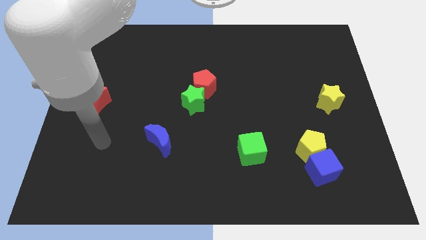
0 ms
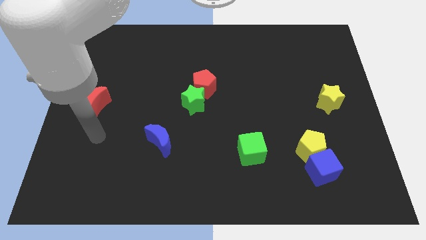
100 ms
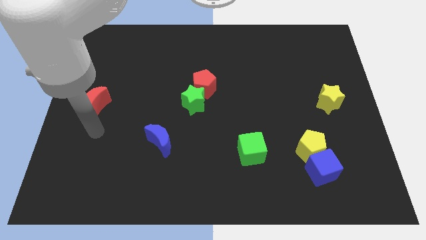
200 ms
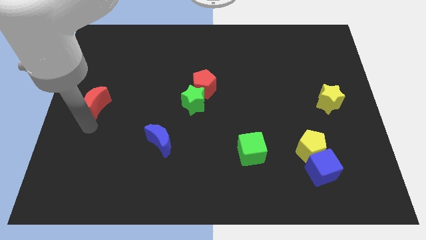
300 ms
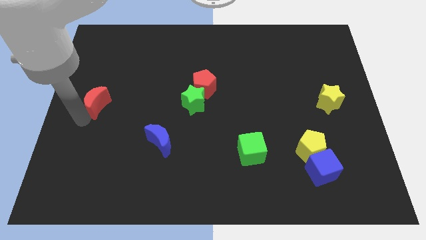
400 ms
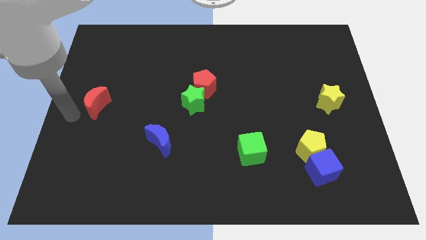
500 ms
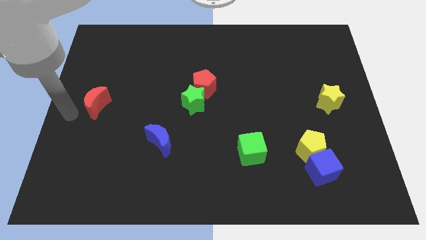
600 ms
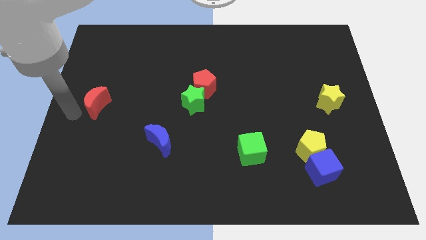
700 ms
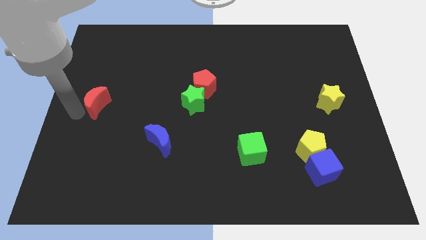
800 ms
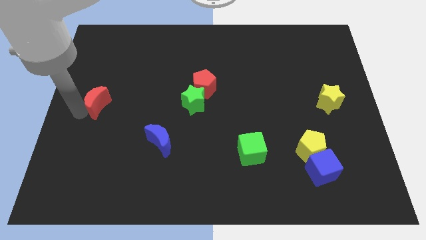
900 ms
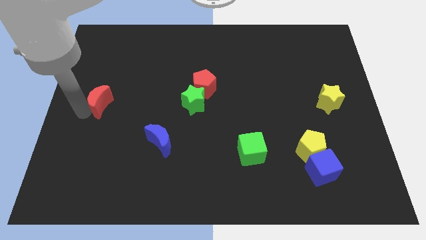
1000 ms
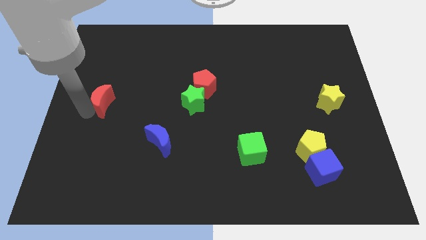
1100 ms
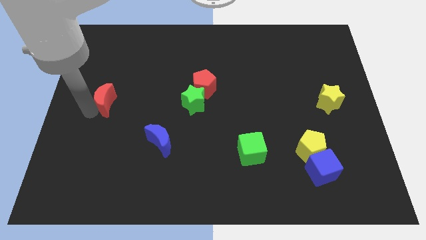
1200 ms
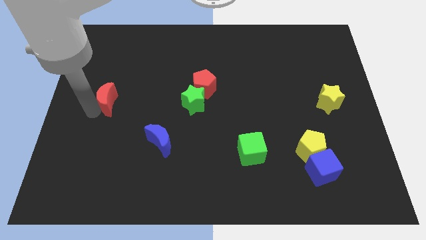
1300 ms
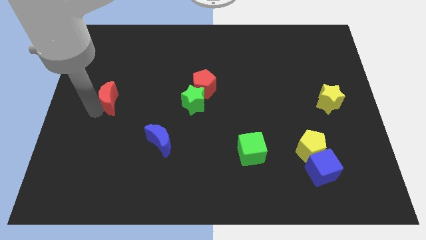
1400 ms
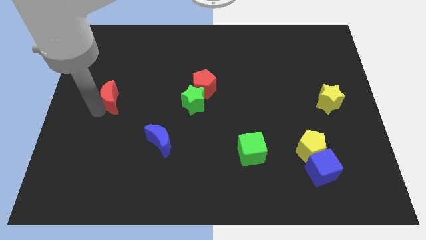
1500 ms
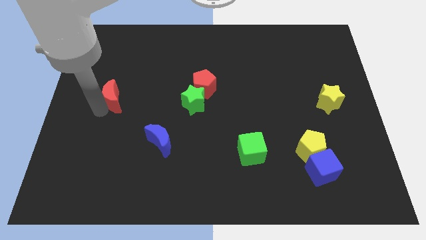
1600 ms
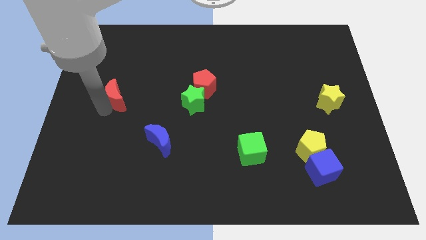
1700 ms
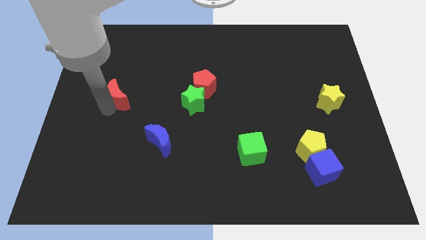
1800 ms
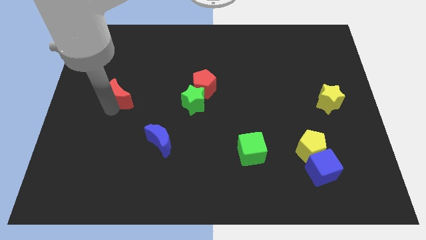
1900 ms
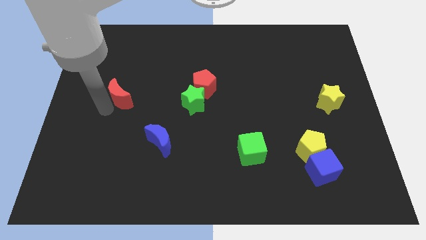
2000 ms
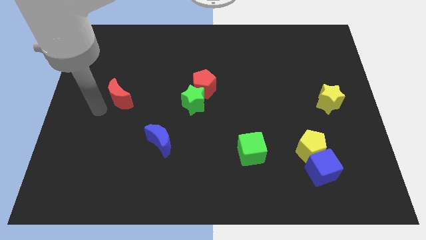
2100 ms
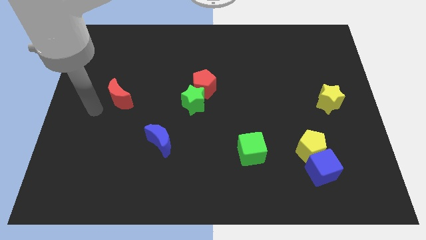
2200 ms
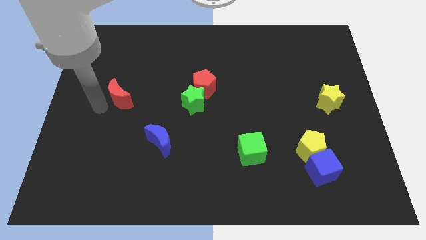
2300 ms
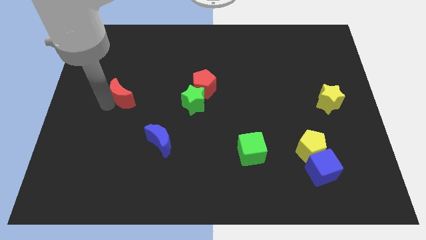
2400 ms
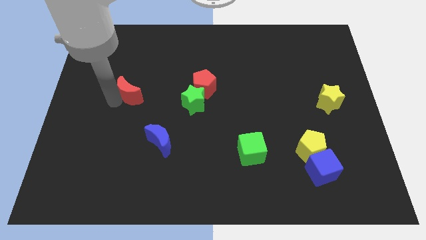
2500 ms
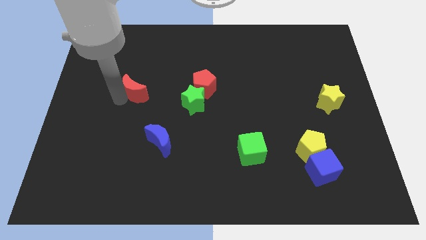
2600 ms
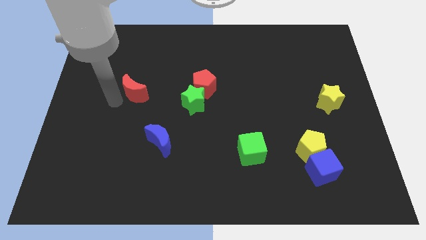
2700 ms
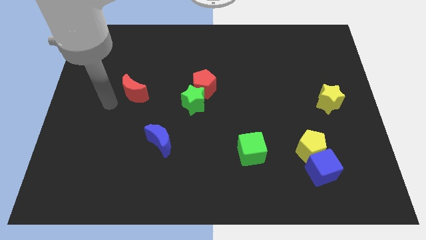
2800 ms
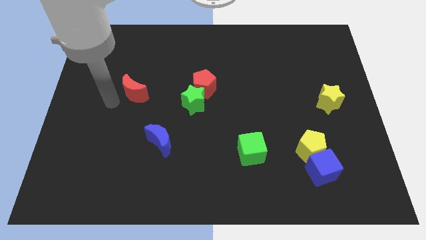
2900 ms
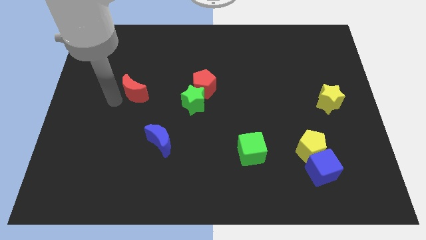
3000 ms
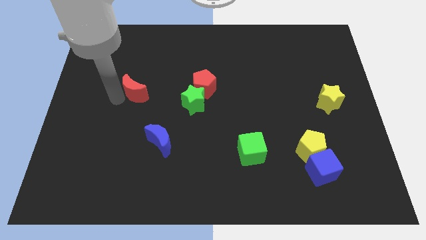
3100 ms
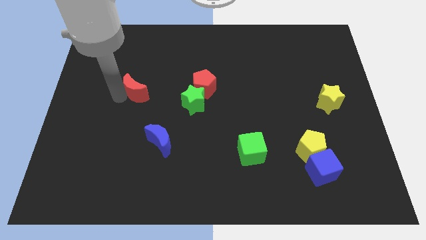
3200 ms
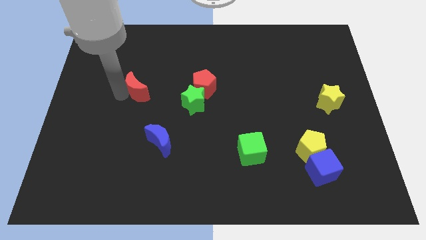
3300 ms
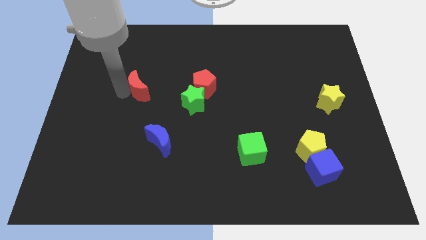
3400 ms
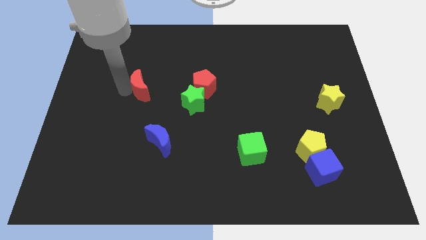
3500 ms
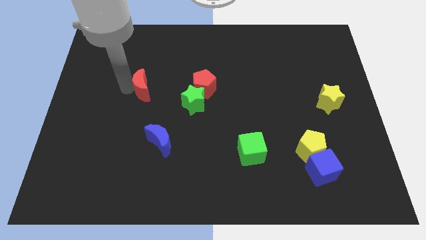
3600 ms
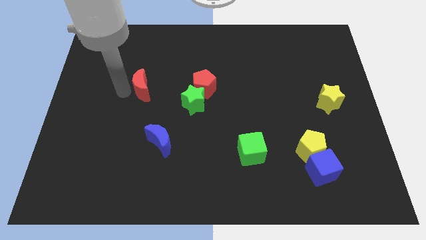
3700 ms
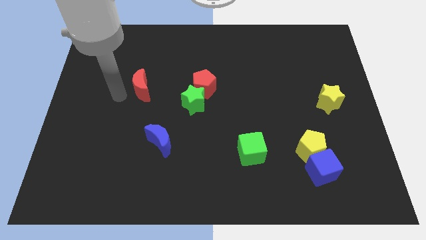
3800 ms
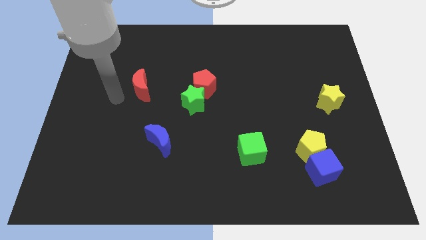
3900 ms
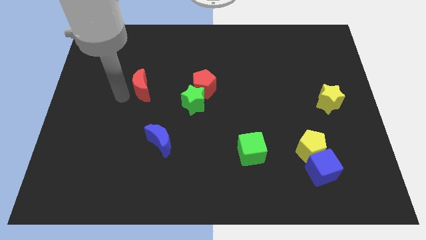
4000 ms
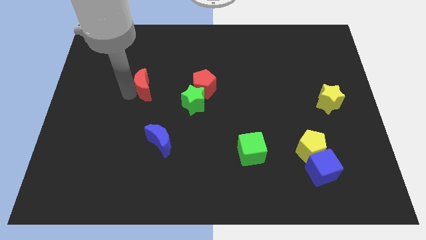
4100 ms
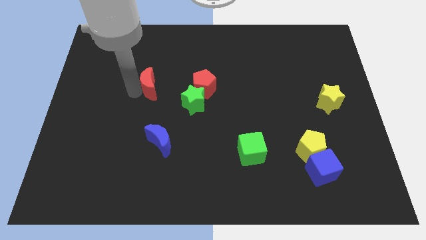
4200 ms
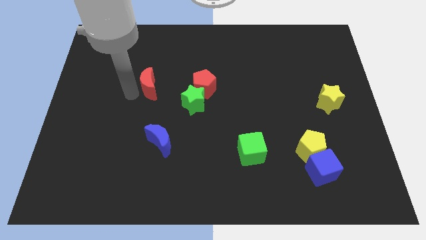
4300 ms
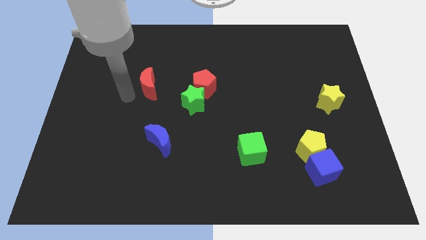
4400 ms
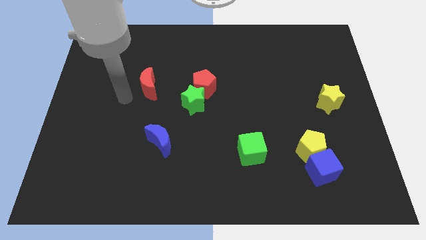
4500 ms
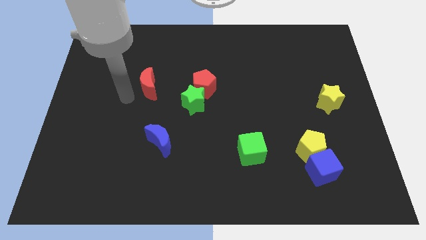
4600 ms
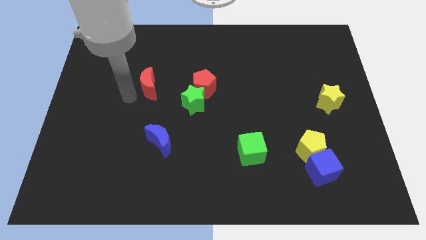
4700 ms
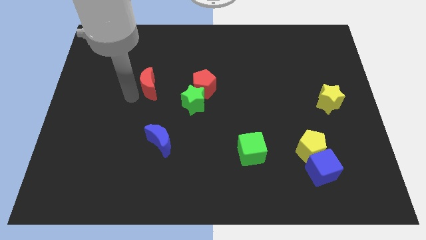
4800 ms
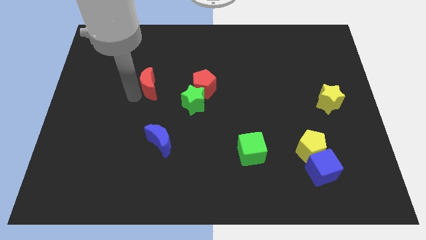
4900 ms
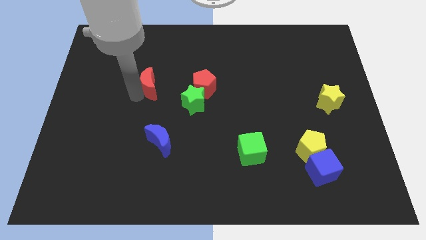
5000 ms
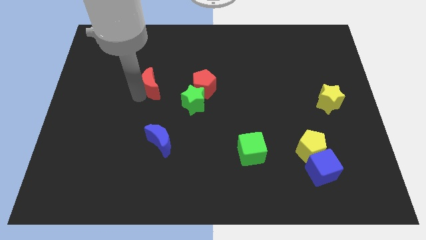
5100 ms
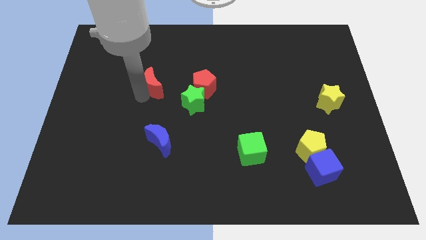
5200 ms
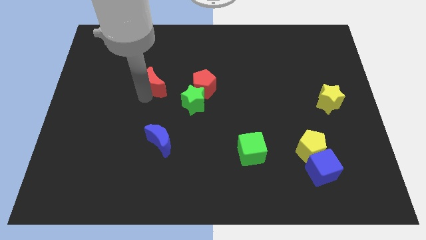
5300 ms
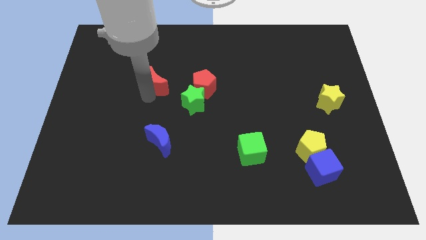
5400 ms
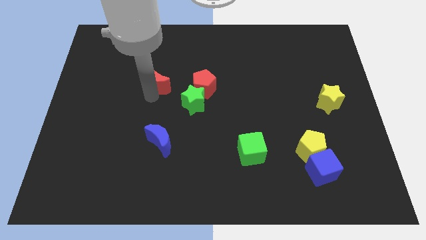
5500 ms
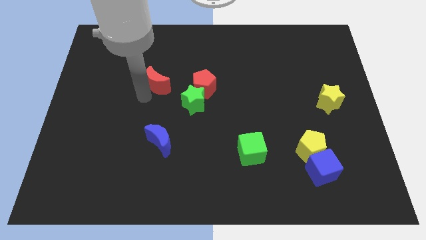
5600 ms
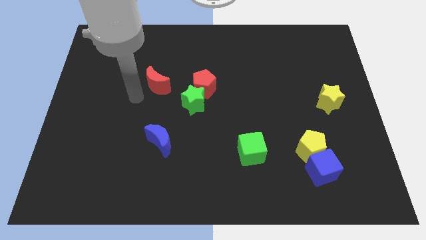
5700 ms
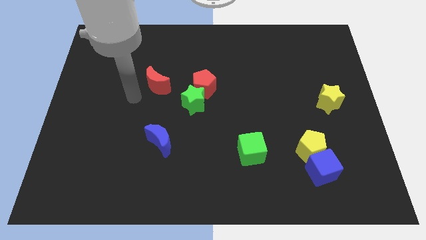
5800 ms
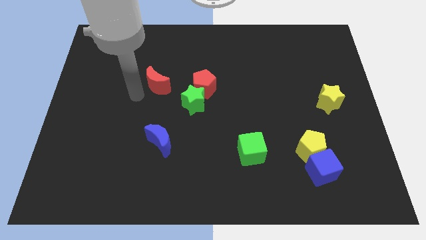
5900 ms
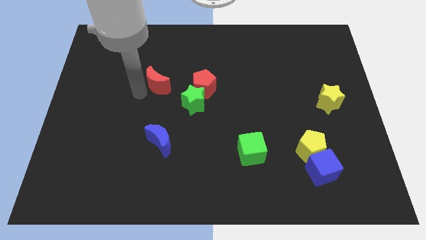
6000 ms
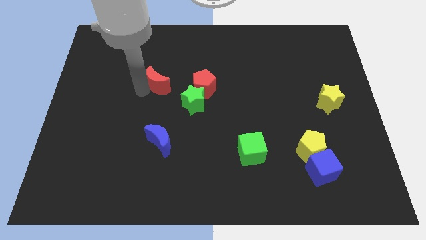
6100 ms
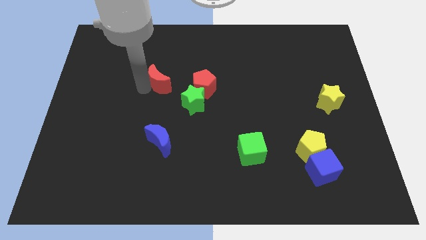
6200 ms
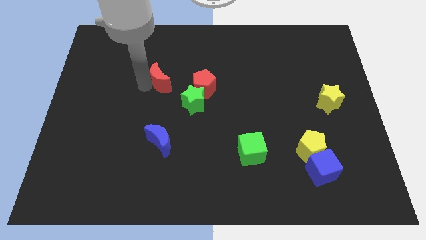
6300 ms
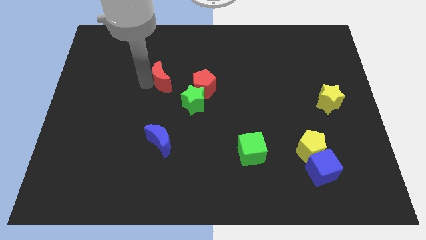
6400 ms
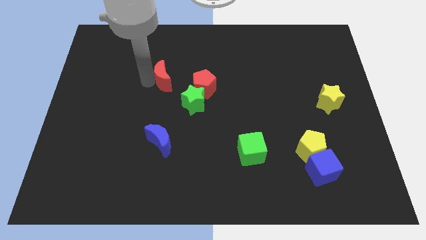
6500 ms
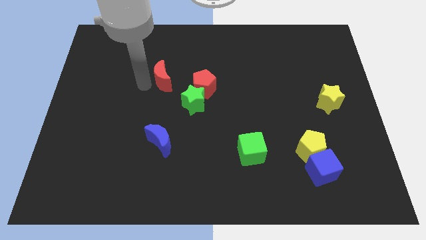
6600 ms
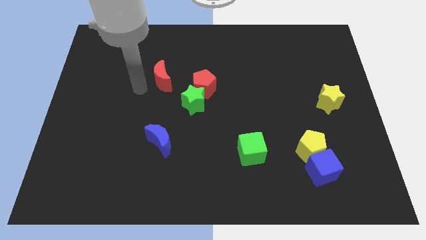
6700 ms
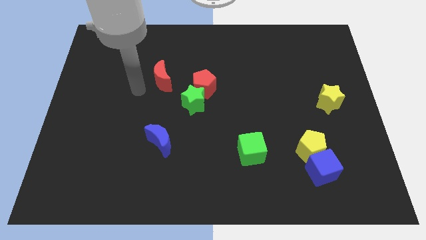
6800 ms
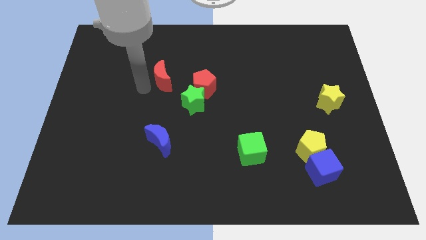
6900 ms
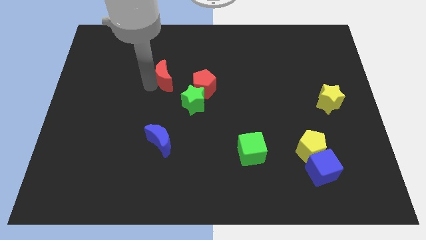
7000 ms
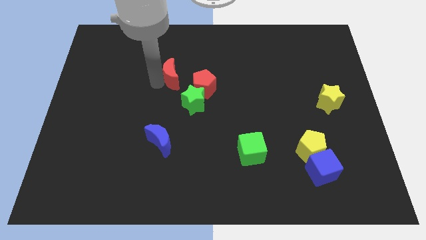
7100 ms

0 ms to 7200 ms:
move the red moon to the top left of the red pentagon

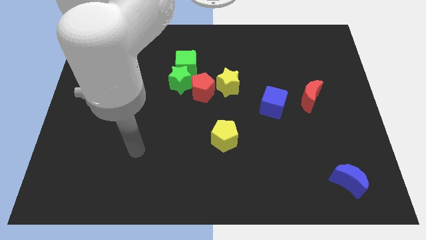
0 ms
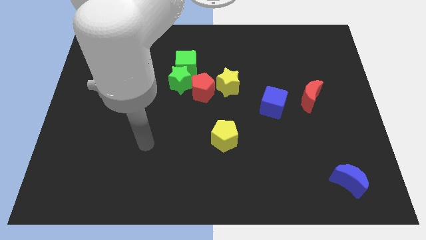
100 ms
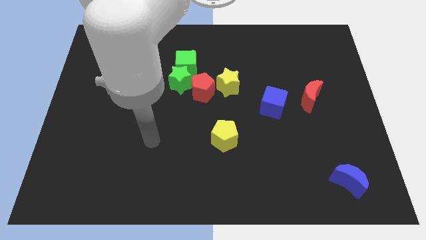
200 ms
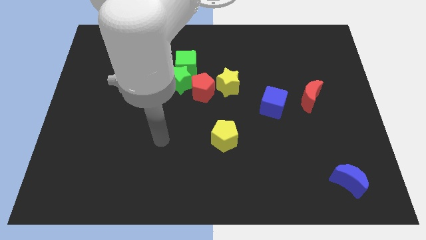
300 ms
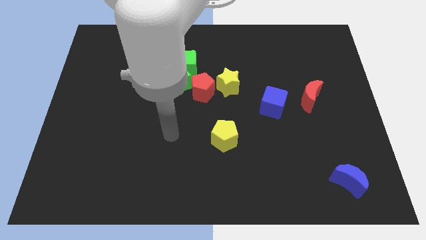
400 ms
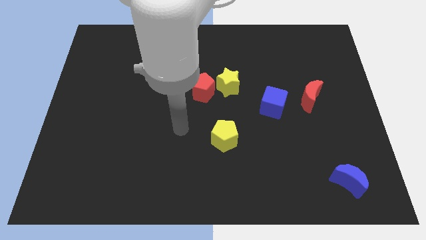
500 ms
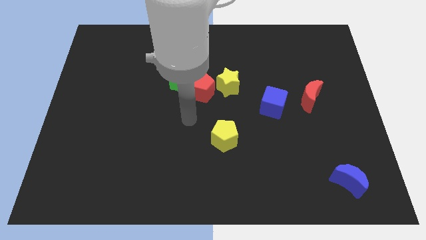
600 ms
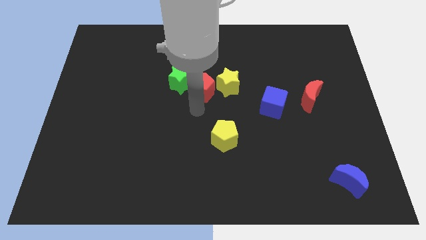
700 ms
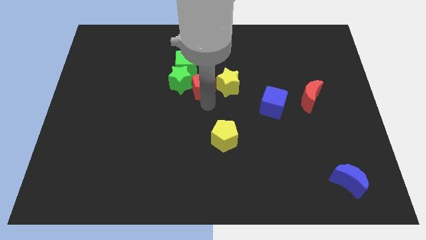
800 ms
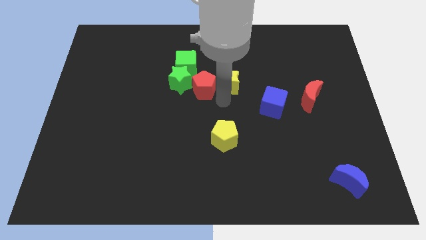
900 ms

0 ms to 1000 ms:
slide the yellow star to the bottom right of the red pentagon
